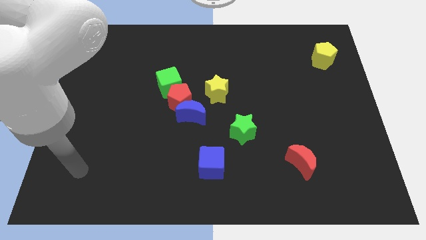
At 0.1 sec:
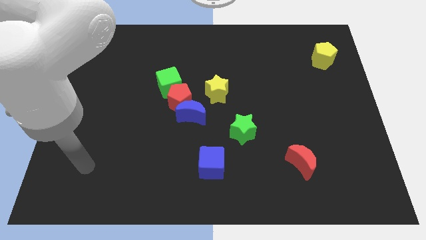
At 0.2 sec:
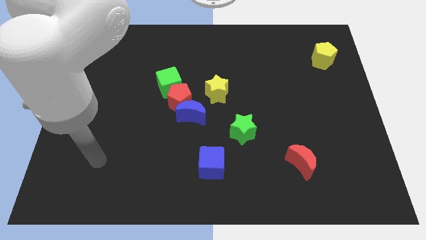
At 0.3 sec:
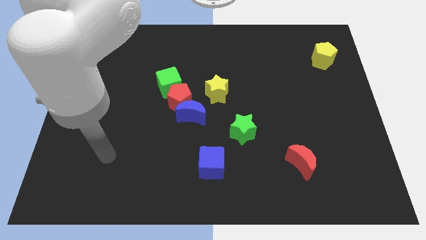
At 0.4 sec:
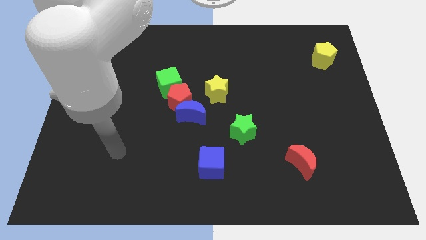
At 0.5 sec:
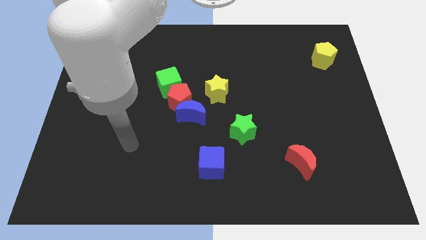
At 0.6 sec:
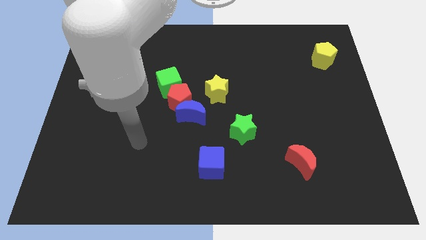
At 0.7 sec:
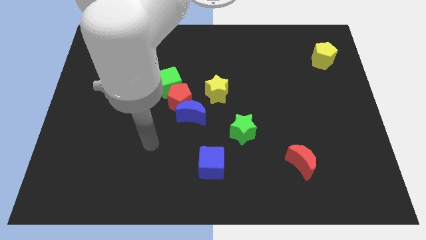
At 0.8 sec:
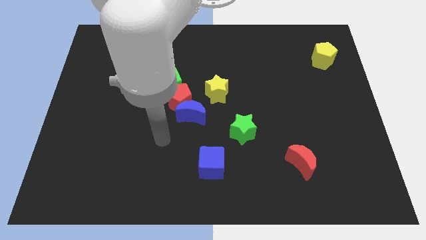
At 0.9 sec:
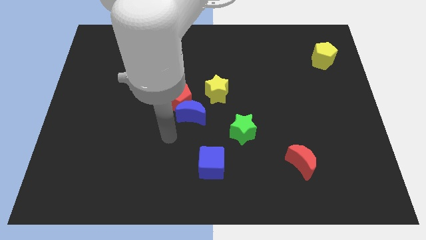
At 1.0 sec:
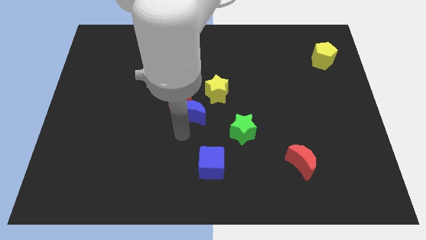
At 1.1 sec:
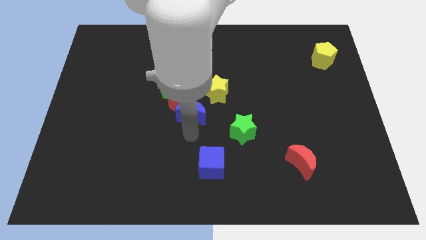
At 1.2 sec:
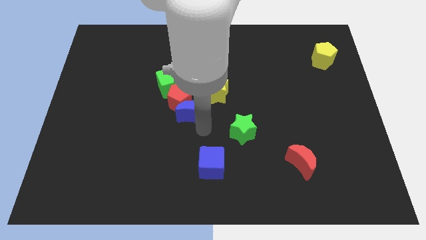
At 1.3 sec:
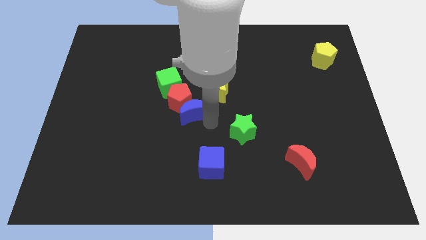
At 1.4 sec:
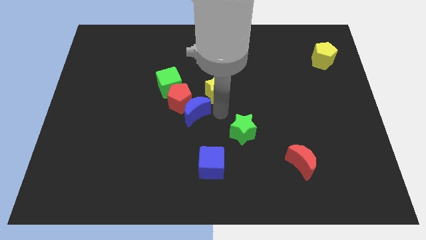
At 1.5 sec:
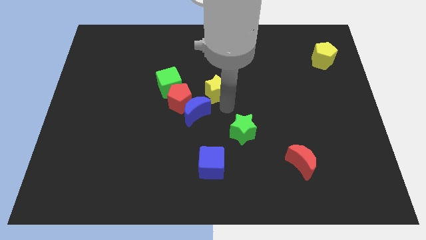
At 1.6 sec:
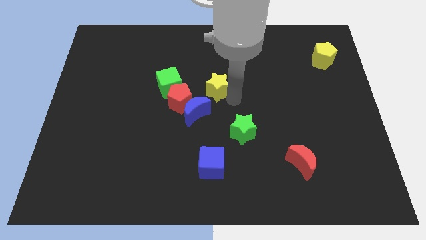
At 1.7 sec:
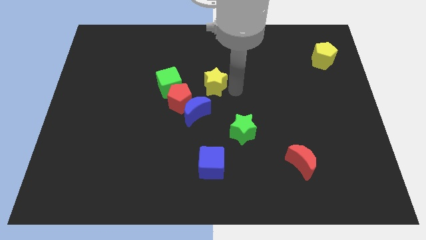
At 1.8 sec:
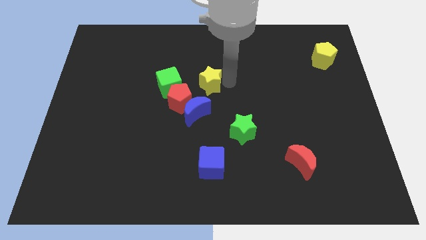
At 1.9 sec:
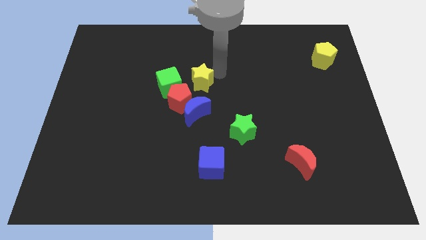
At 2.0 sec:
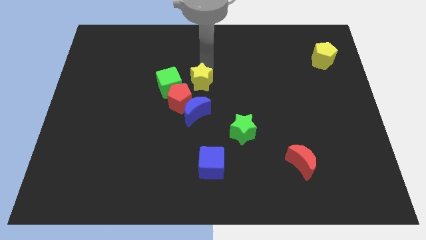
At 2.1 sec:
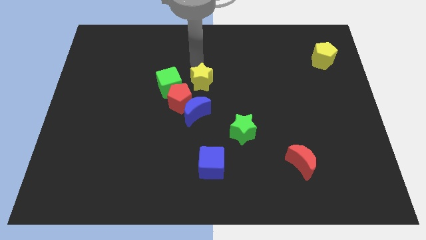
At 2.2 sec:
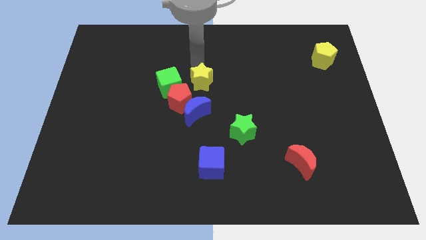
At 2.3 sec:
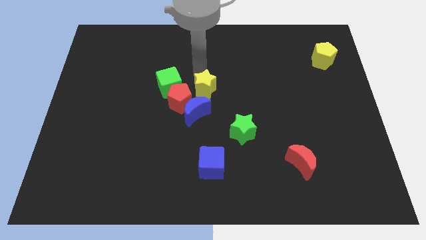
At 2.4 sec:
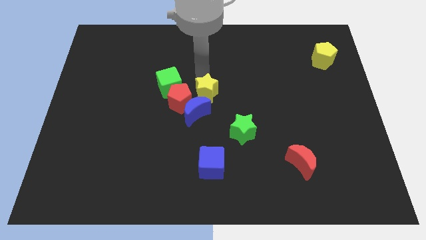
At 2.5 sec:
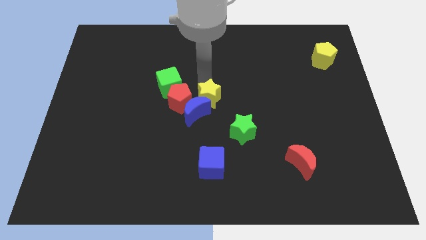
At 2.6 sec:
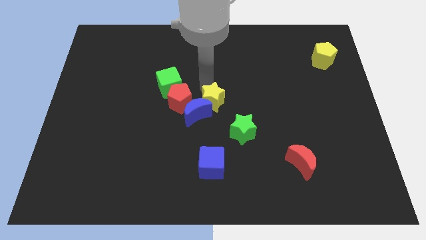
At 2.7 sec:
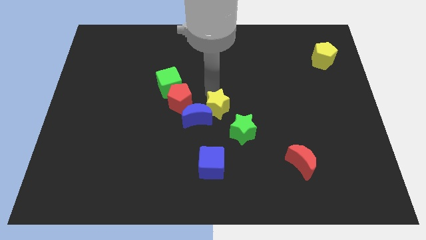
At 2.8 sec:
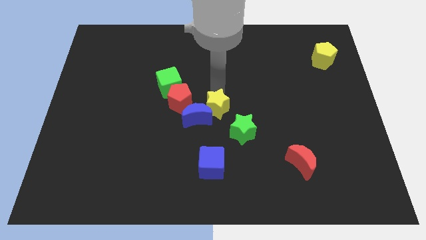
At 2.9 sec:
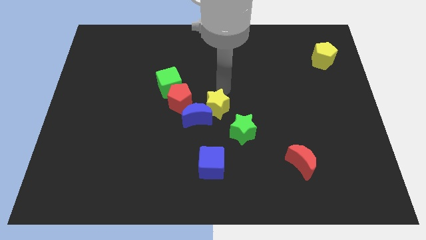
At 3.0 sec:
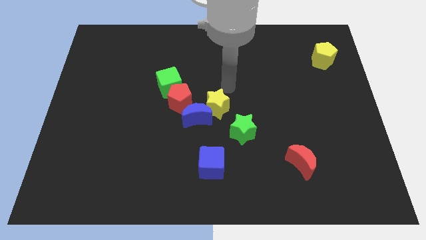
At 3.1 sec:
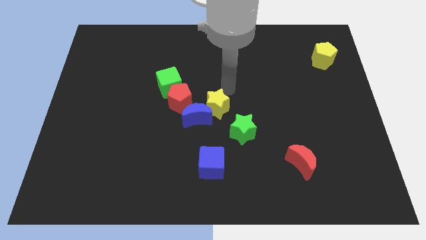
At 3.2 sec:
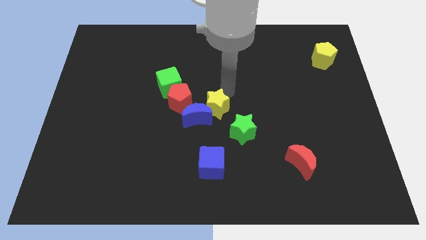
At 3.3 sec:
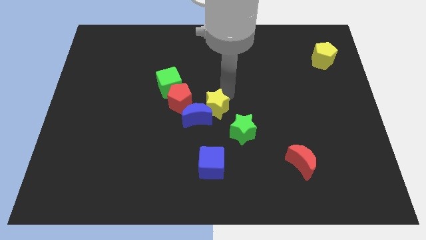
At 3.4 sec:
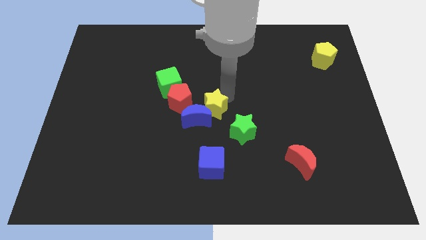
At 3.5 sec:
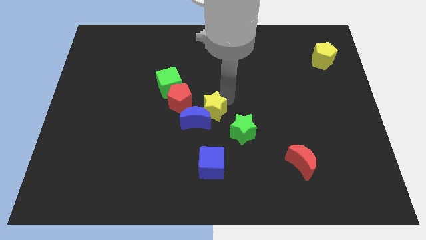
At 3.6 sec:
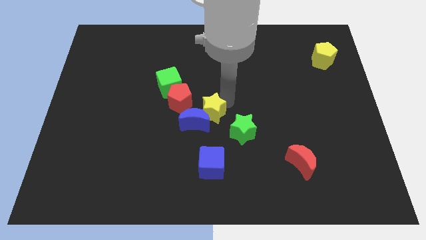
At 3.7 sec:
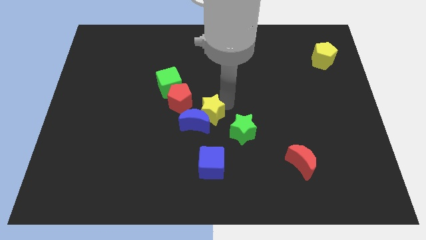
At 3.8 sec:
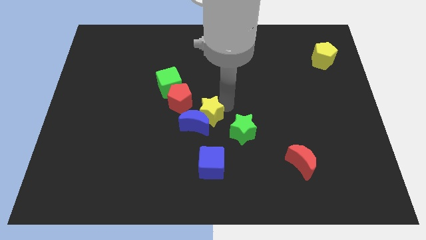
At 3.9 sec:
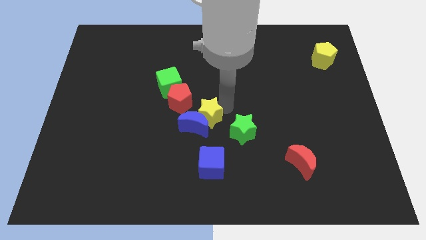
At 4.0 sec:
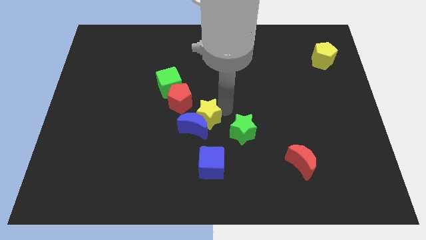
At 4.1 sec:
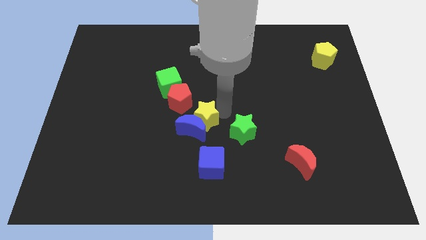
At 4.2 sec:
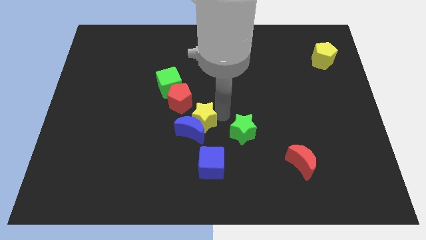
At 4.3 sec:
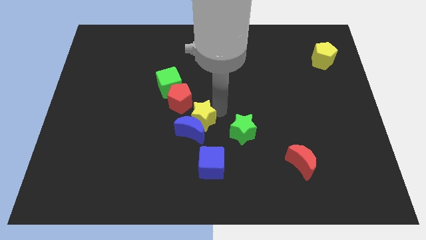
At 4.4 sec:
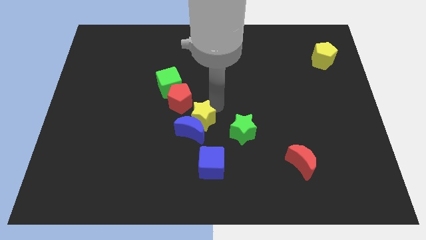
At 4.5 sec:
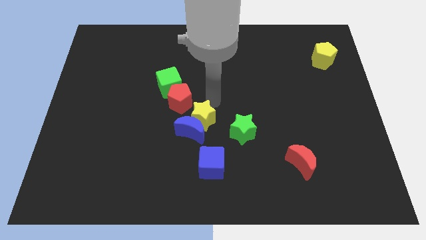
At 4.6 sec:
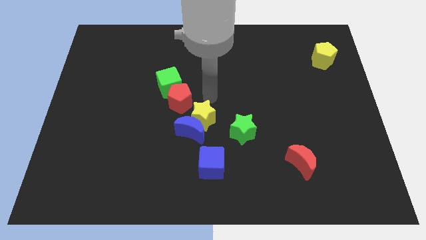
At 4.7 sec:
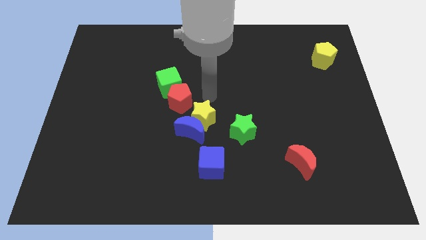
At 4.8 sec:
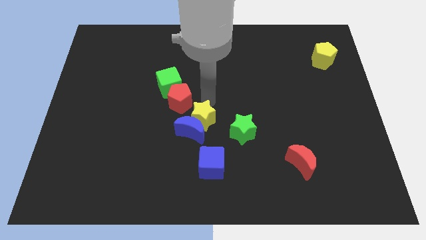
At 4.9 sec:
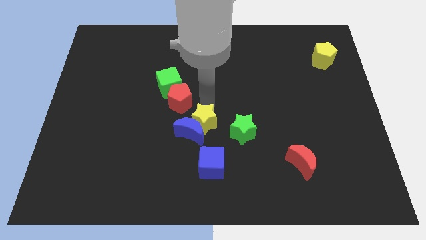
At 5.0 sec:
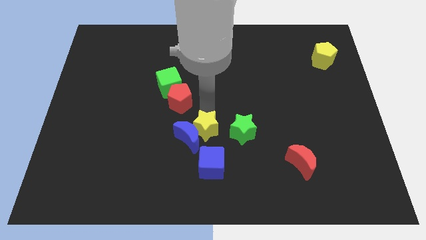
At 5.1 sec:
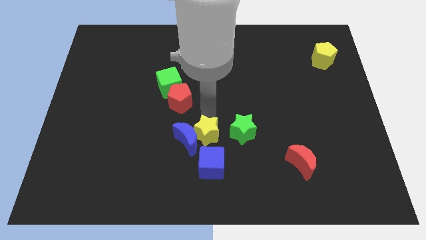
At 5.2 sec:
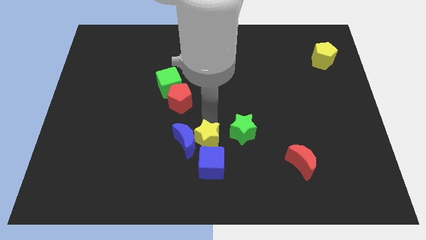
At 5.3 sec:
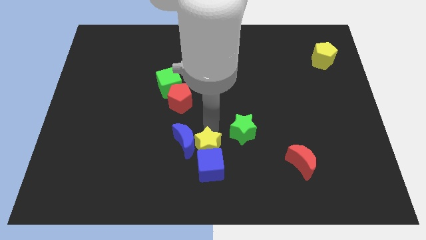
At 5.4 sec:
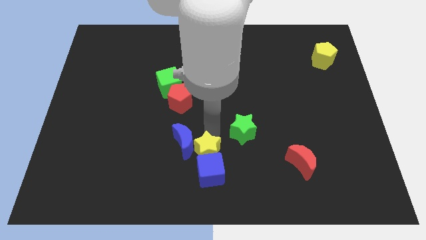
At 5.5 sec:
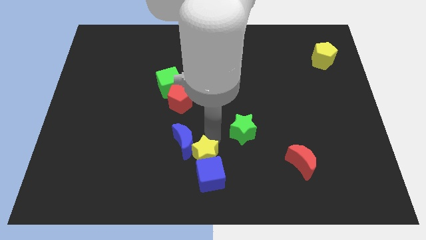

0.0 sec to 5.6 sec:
slide the yellow star to the bottom

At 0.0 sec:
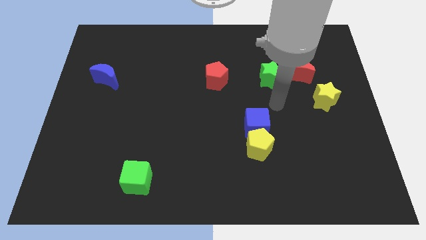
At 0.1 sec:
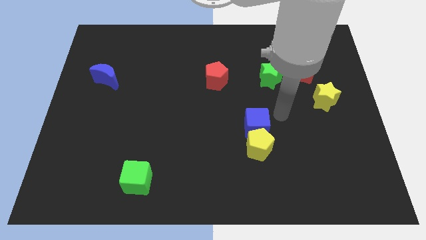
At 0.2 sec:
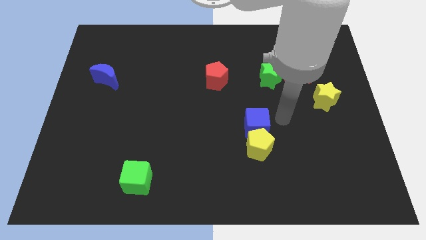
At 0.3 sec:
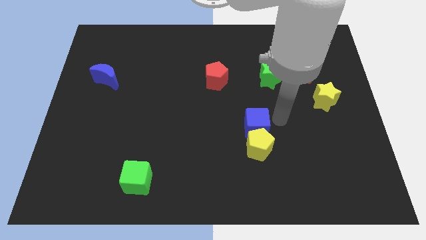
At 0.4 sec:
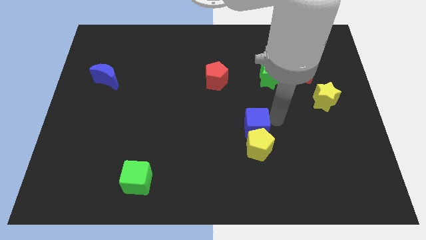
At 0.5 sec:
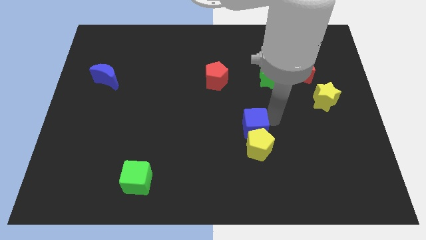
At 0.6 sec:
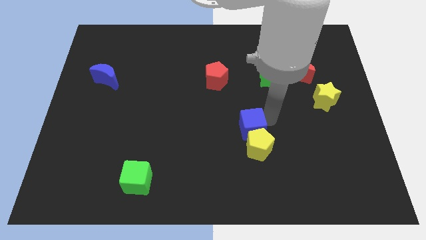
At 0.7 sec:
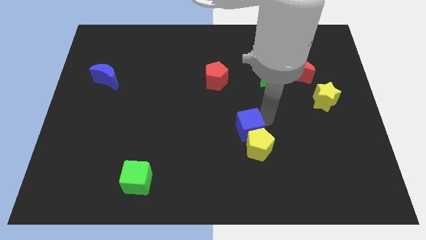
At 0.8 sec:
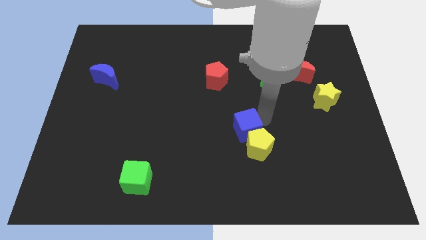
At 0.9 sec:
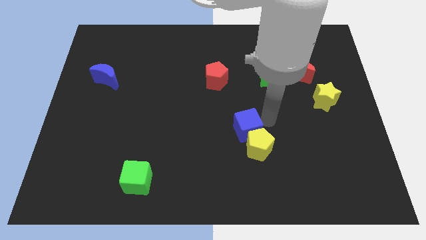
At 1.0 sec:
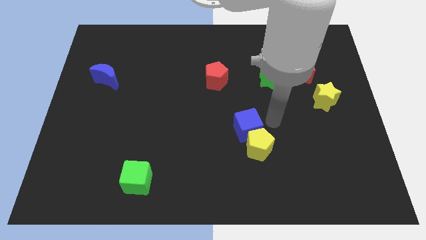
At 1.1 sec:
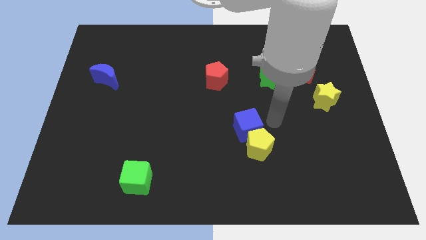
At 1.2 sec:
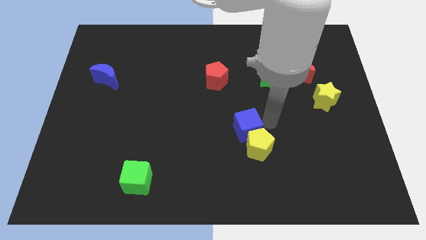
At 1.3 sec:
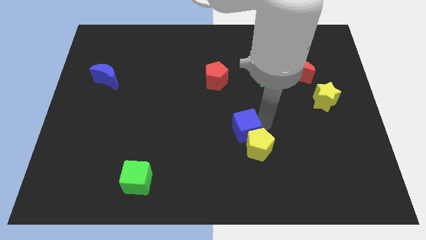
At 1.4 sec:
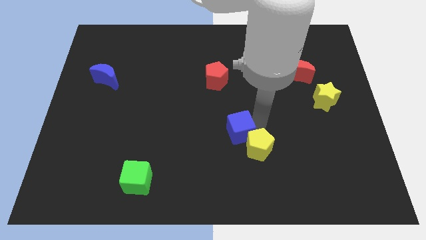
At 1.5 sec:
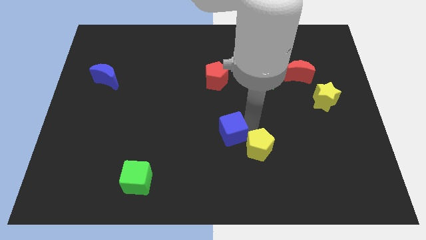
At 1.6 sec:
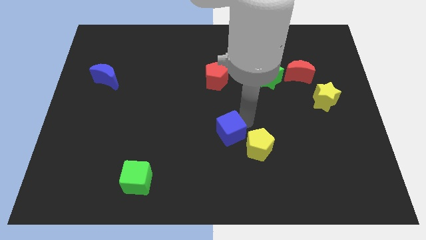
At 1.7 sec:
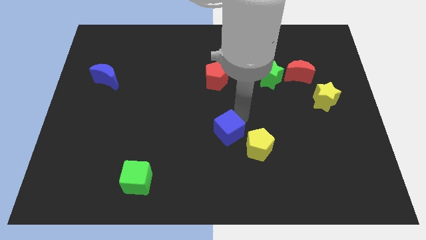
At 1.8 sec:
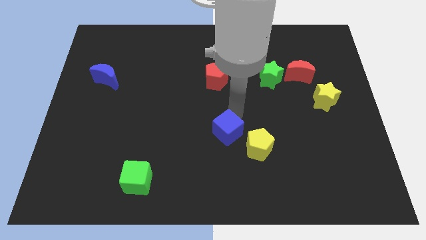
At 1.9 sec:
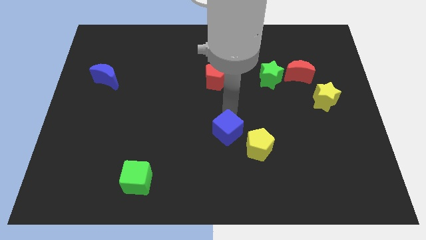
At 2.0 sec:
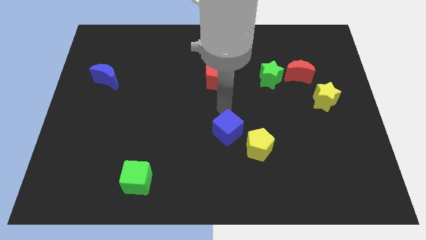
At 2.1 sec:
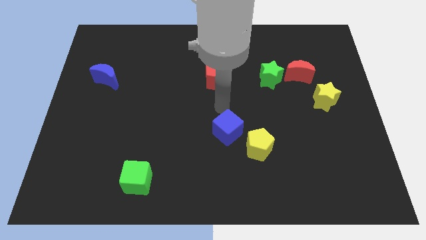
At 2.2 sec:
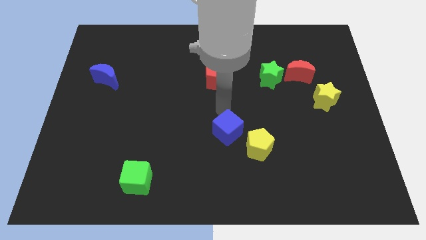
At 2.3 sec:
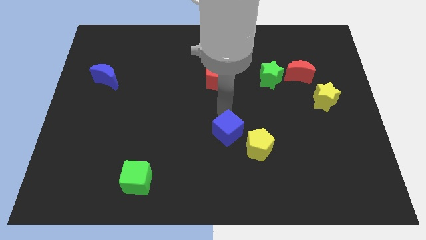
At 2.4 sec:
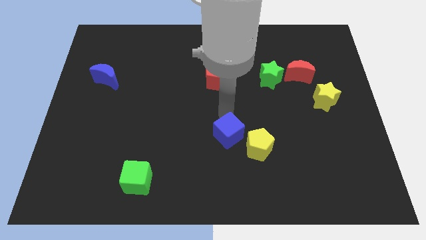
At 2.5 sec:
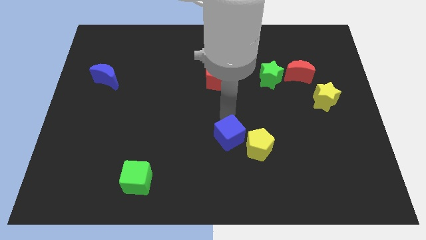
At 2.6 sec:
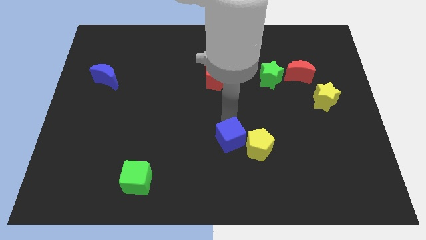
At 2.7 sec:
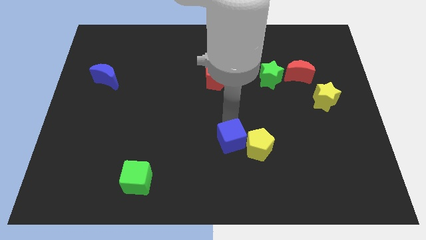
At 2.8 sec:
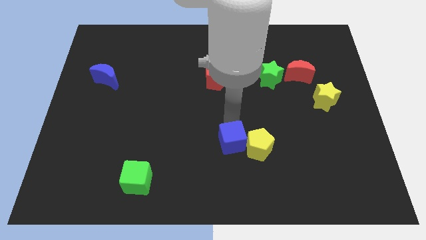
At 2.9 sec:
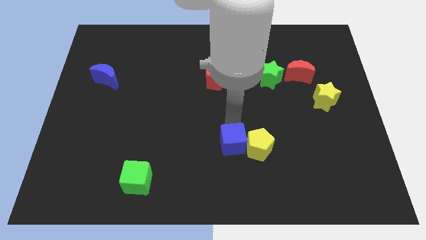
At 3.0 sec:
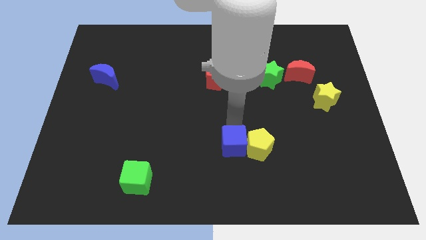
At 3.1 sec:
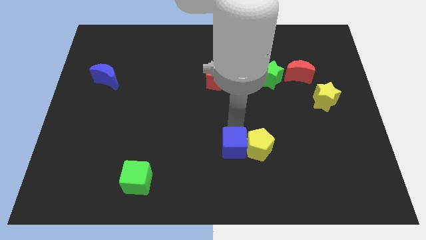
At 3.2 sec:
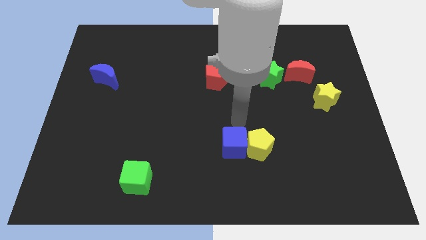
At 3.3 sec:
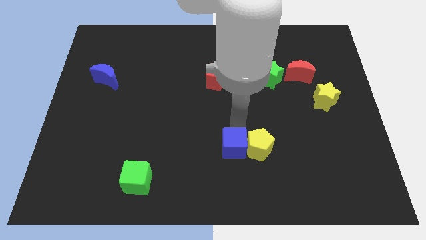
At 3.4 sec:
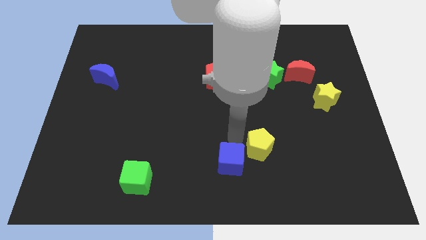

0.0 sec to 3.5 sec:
move the blue cube to the bottom
